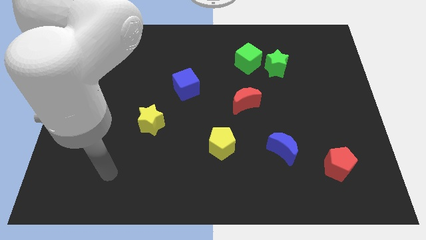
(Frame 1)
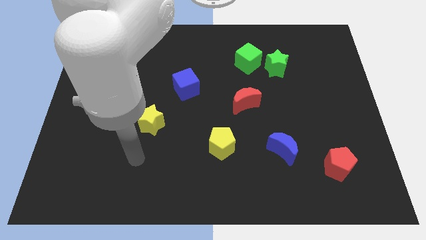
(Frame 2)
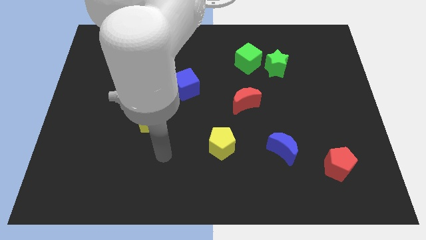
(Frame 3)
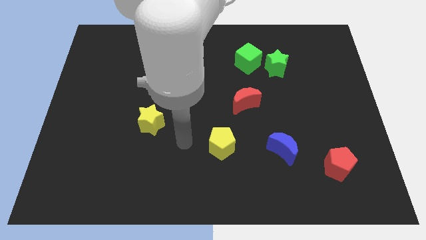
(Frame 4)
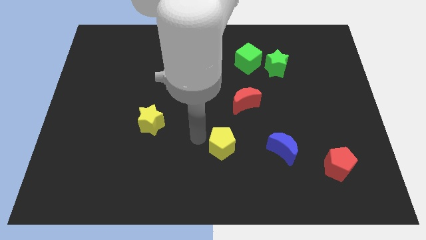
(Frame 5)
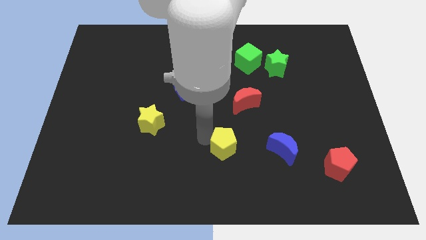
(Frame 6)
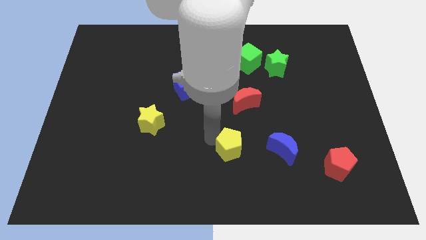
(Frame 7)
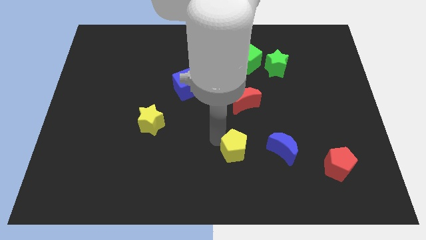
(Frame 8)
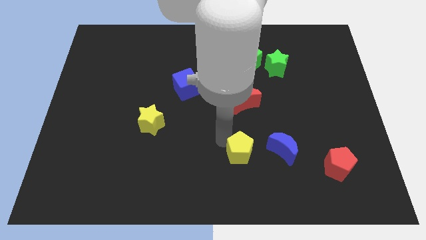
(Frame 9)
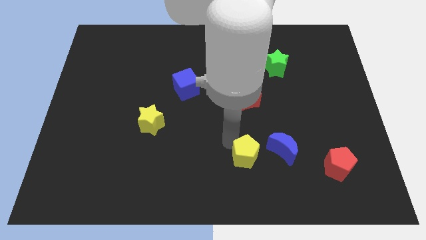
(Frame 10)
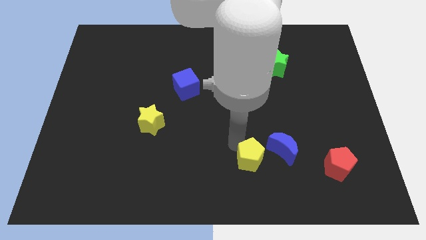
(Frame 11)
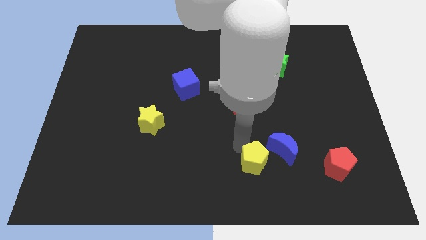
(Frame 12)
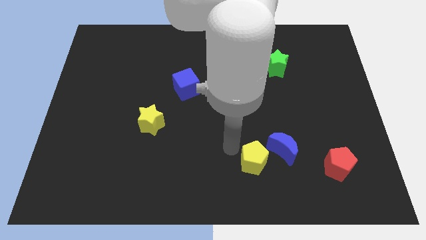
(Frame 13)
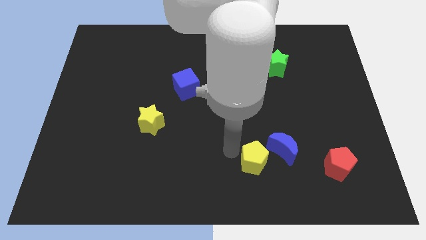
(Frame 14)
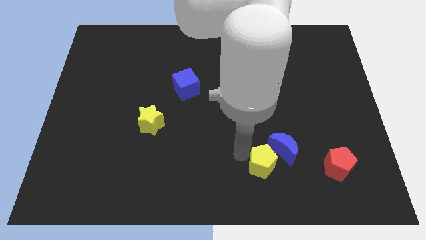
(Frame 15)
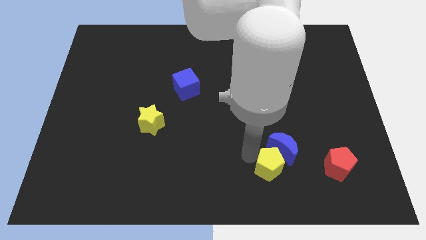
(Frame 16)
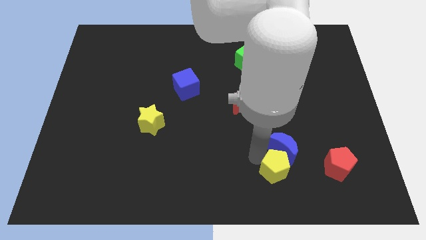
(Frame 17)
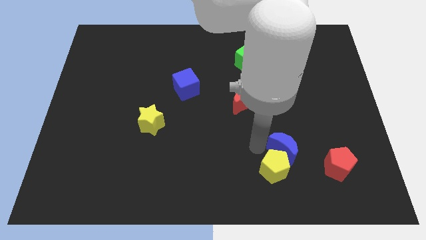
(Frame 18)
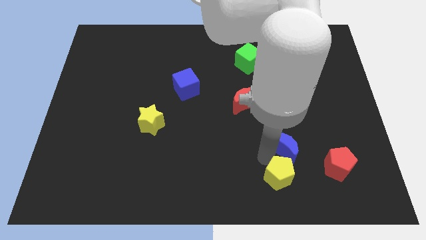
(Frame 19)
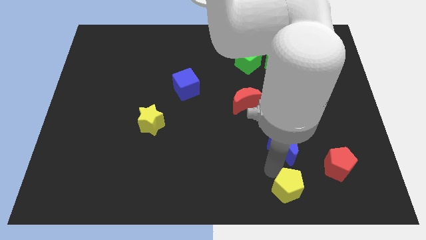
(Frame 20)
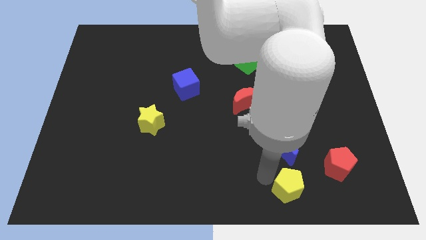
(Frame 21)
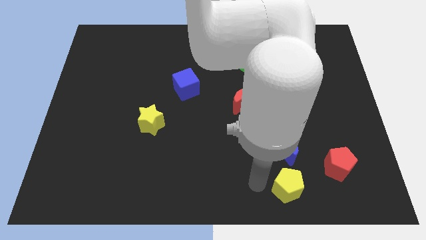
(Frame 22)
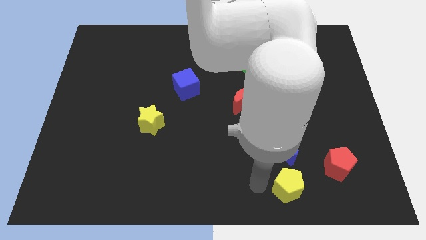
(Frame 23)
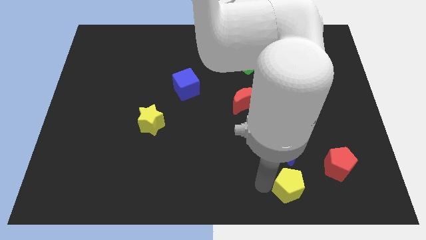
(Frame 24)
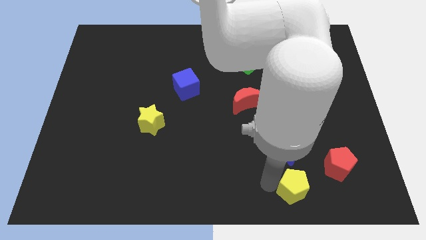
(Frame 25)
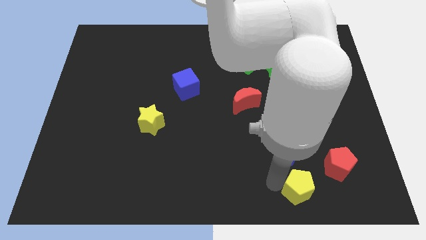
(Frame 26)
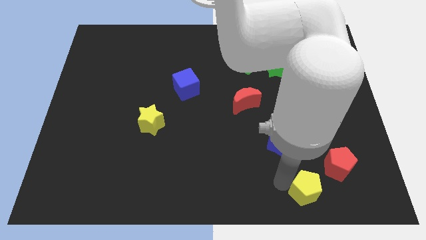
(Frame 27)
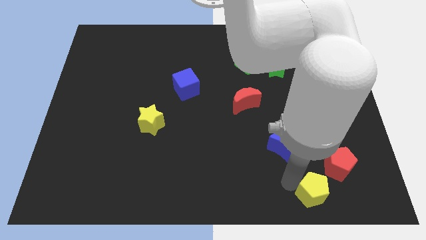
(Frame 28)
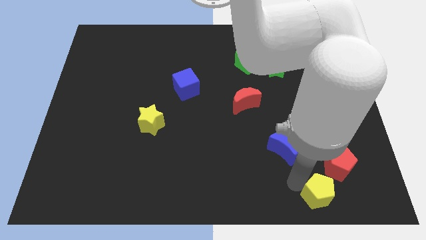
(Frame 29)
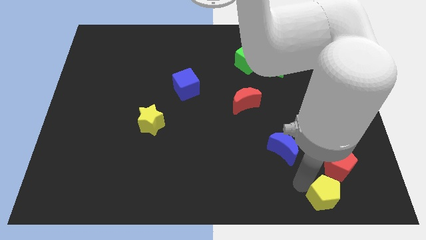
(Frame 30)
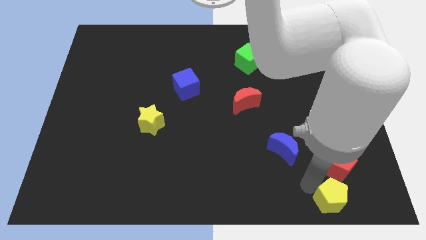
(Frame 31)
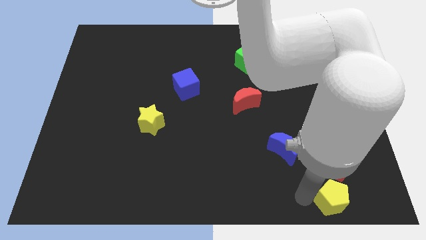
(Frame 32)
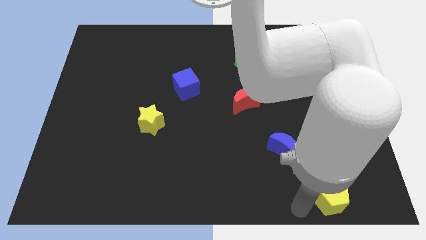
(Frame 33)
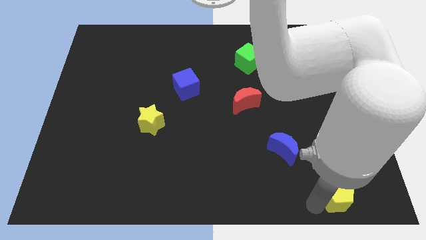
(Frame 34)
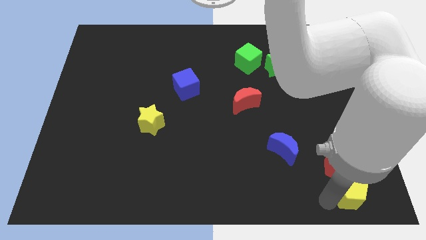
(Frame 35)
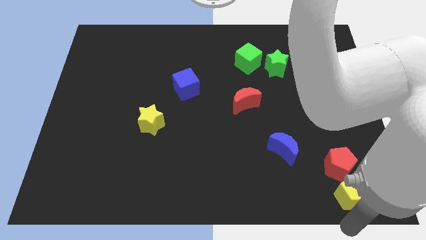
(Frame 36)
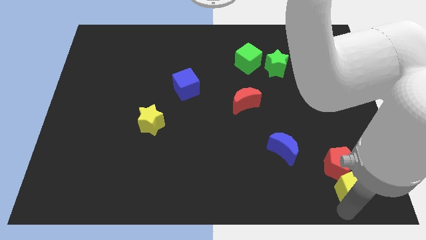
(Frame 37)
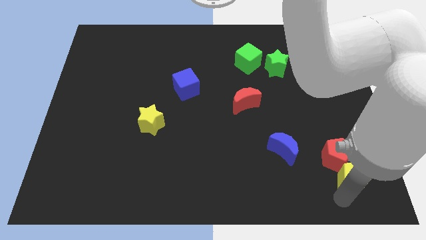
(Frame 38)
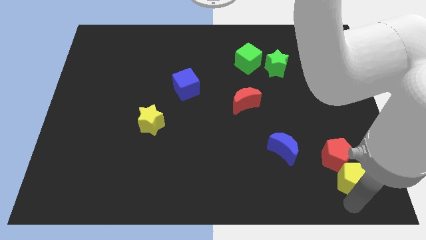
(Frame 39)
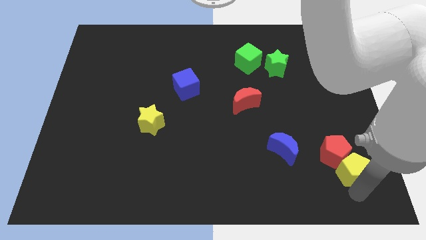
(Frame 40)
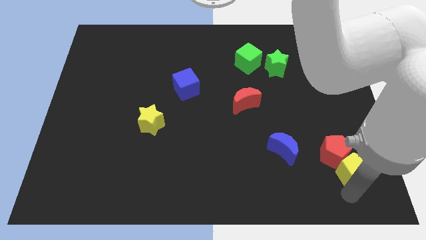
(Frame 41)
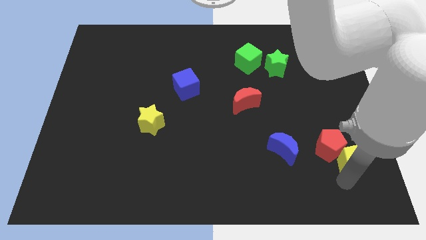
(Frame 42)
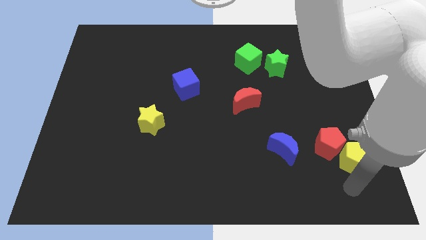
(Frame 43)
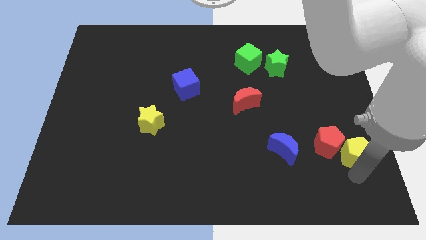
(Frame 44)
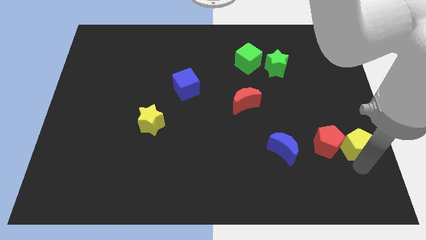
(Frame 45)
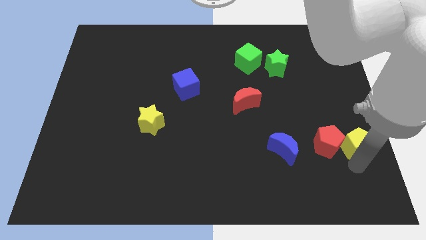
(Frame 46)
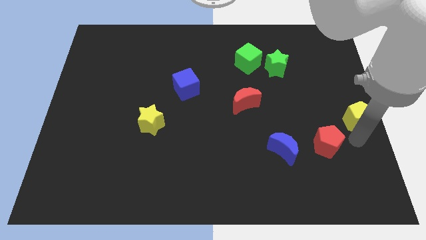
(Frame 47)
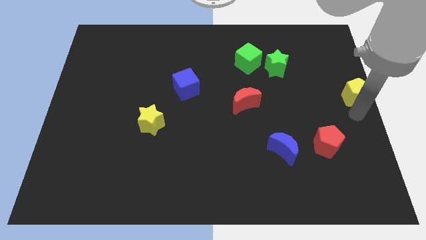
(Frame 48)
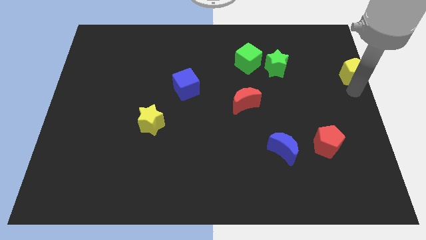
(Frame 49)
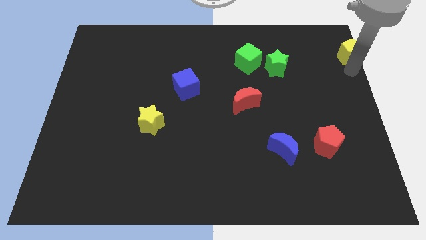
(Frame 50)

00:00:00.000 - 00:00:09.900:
move the yellow pentagon to the top right of the board

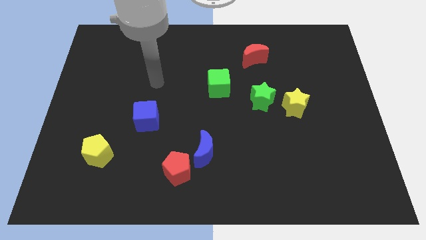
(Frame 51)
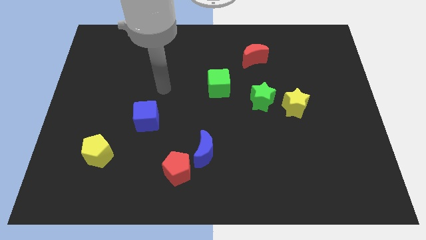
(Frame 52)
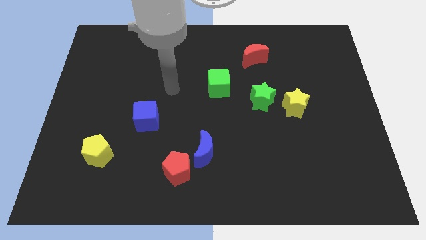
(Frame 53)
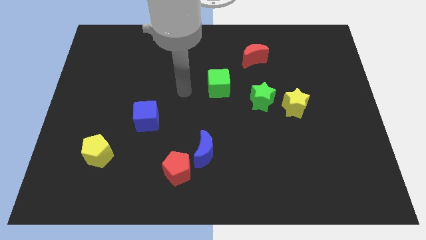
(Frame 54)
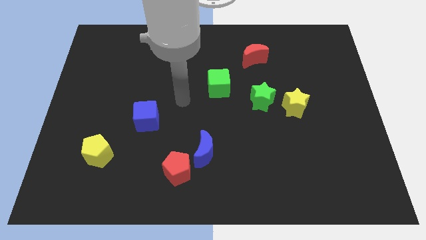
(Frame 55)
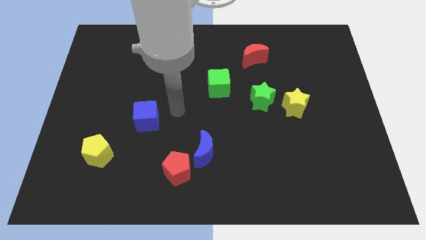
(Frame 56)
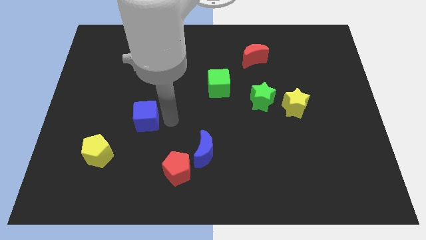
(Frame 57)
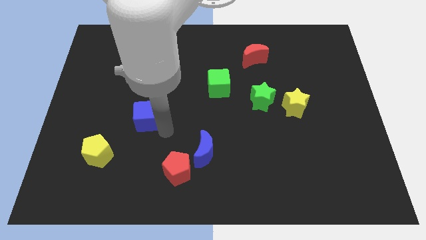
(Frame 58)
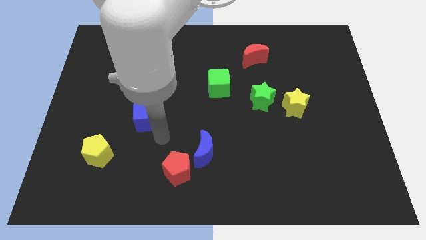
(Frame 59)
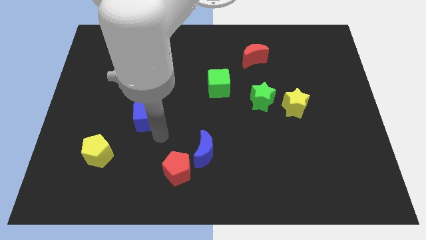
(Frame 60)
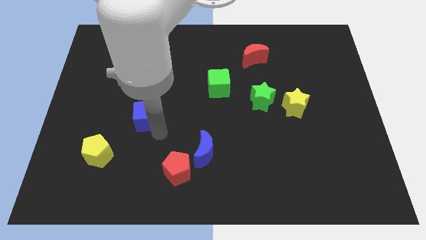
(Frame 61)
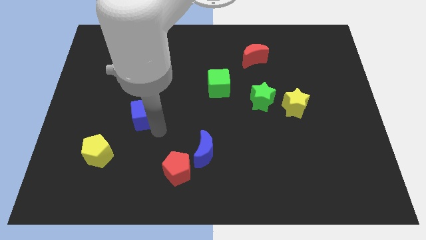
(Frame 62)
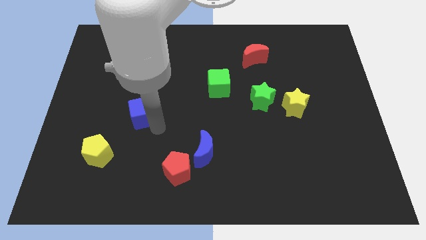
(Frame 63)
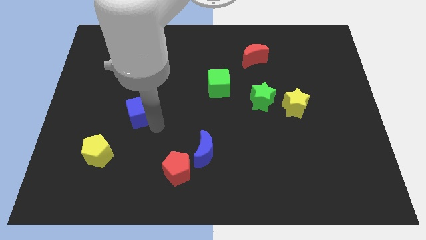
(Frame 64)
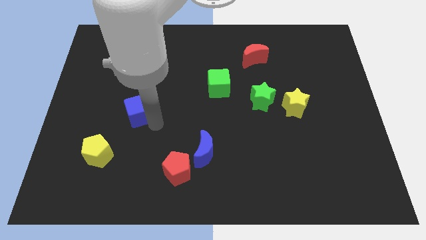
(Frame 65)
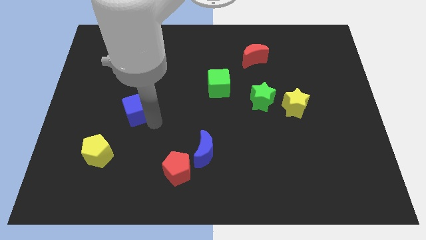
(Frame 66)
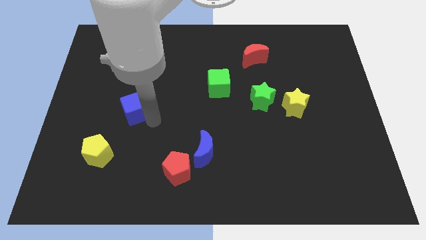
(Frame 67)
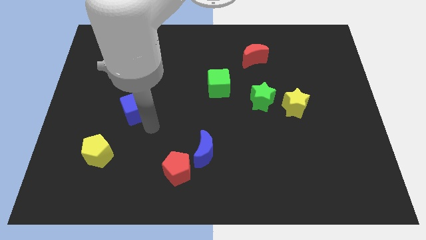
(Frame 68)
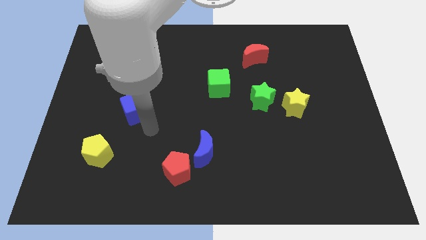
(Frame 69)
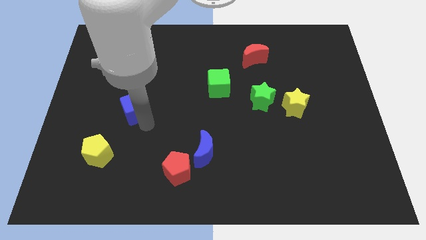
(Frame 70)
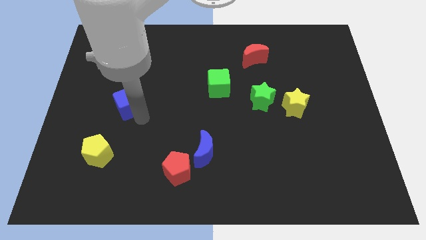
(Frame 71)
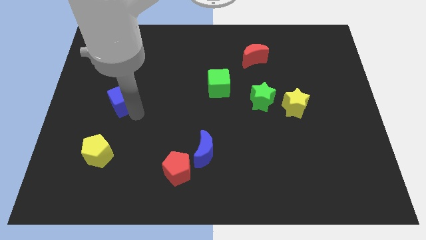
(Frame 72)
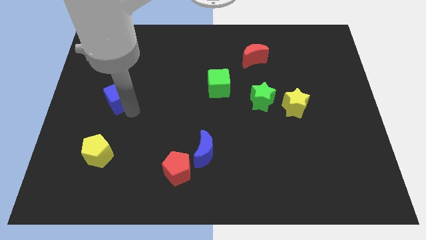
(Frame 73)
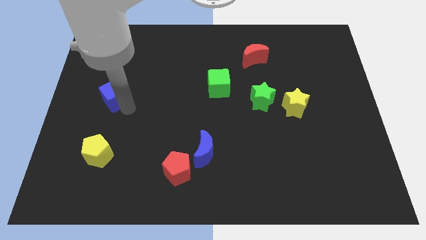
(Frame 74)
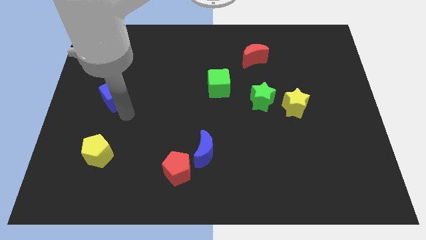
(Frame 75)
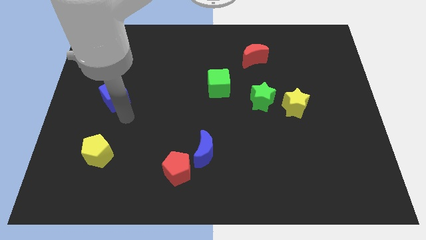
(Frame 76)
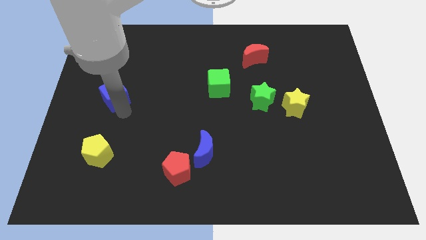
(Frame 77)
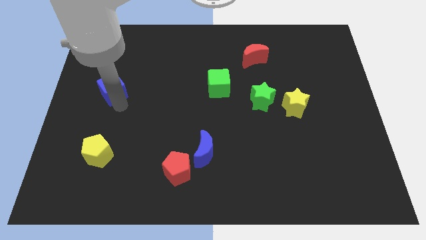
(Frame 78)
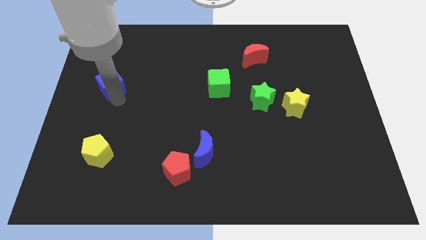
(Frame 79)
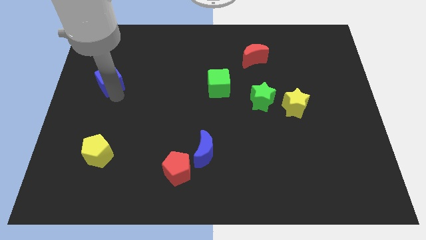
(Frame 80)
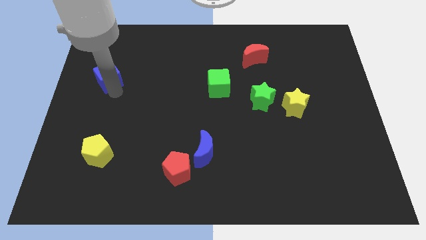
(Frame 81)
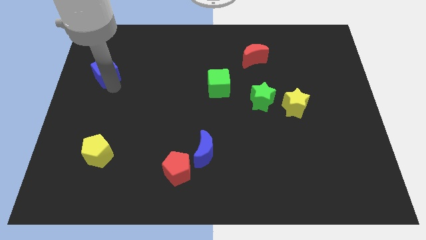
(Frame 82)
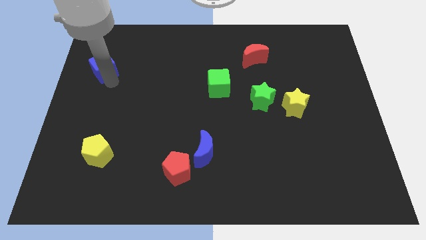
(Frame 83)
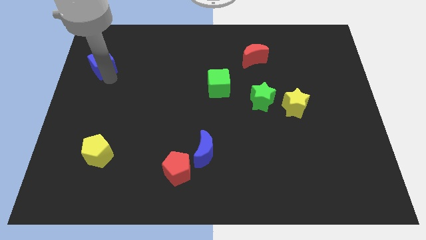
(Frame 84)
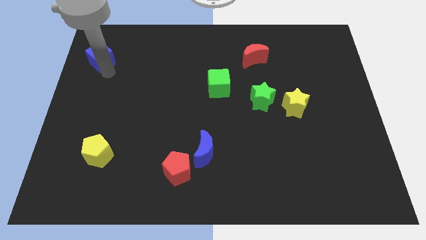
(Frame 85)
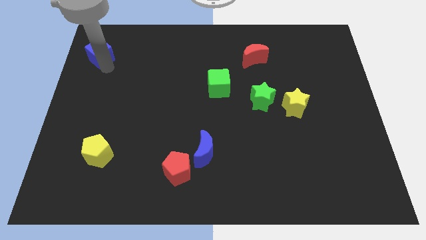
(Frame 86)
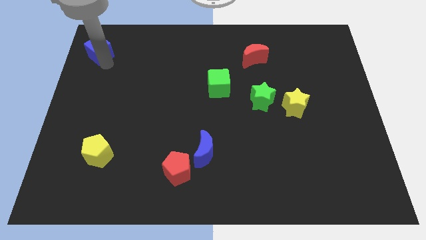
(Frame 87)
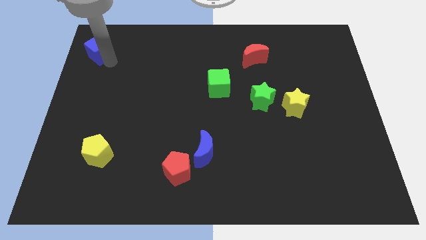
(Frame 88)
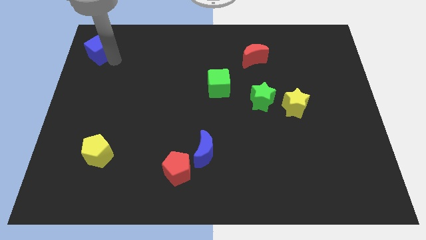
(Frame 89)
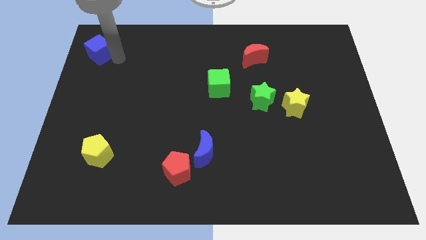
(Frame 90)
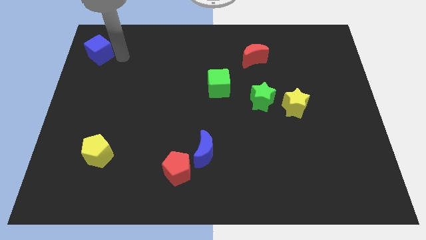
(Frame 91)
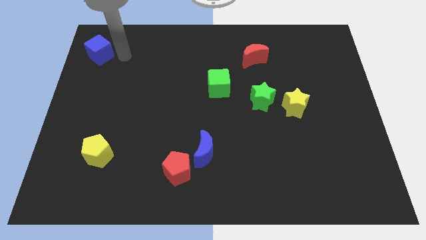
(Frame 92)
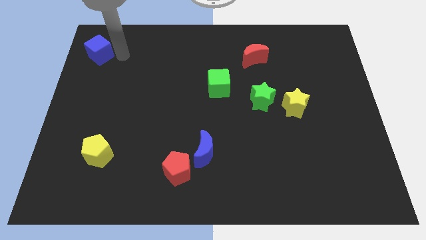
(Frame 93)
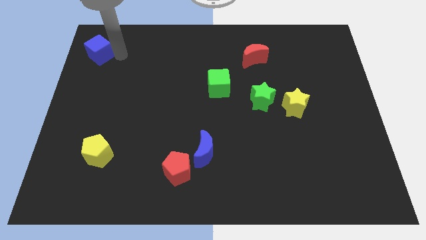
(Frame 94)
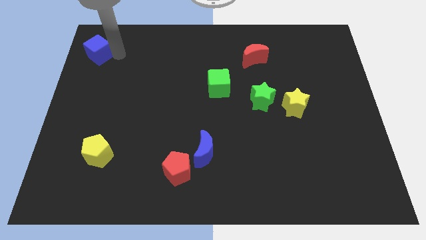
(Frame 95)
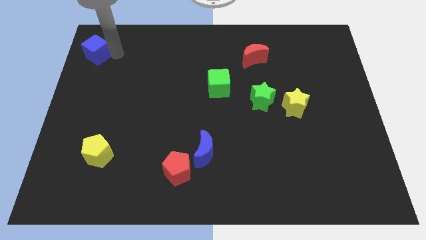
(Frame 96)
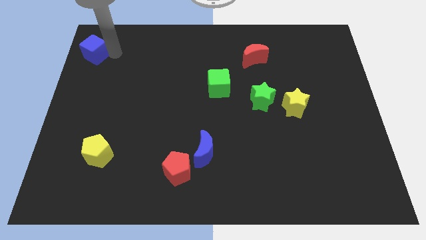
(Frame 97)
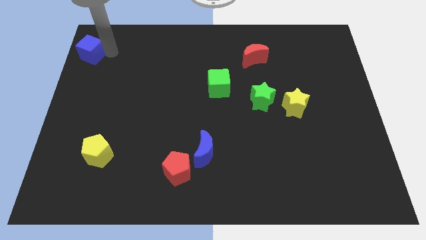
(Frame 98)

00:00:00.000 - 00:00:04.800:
put the blue cube to the top left corner
